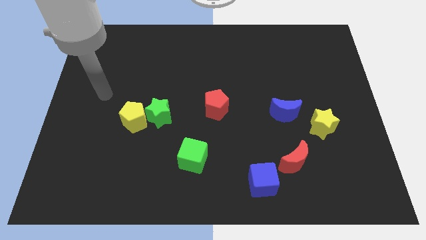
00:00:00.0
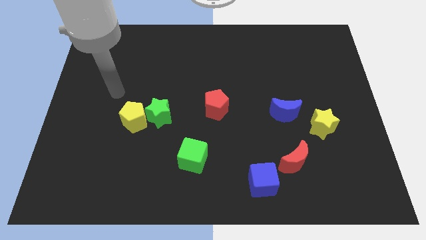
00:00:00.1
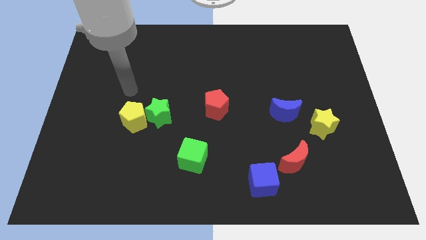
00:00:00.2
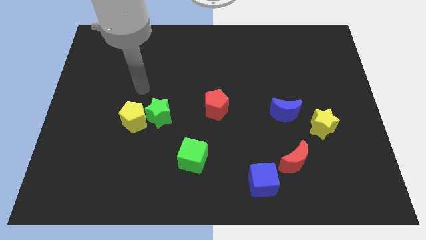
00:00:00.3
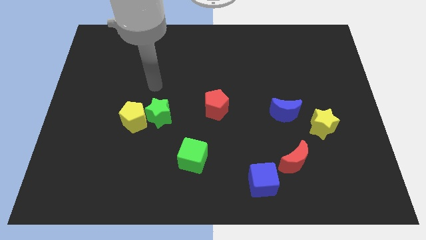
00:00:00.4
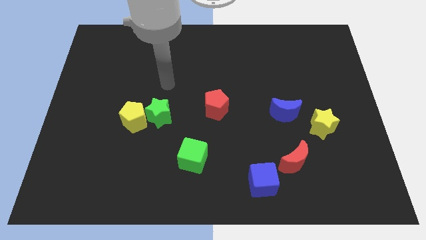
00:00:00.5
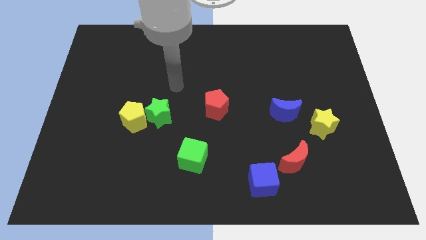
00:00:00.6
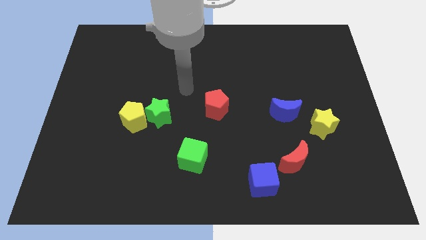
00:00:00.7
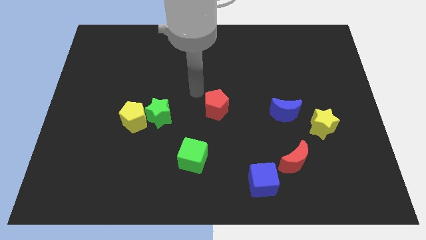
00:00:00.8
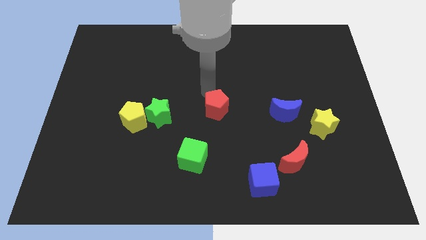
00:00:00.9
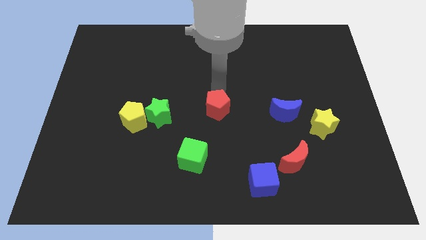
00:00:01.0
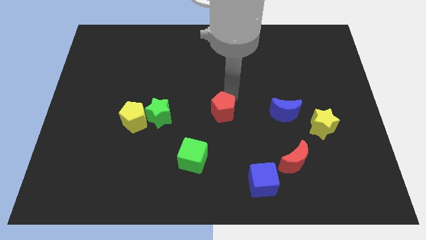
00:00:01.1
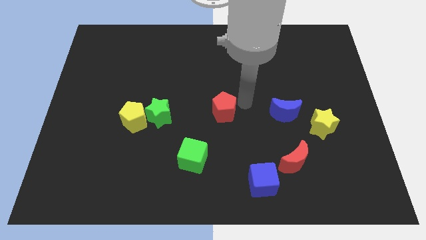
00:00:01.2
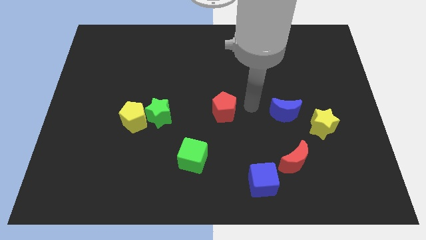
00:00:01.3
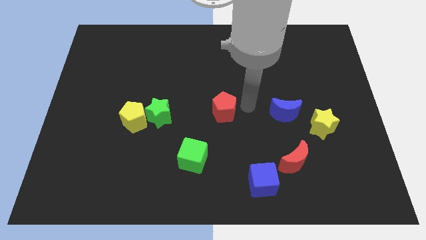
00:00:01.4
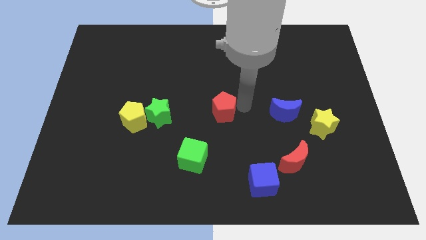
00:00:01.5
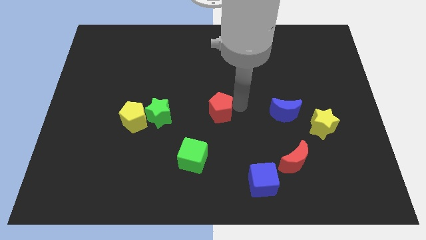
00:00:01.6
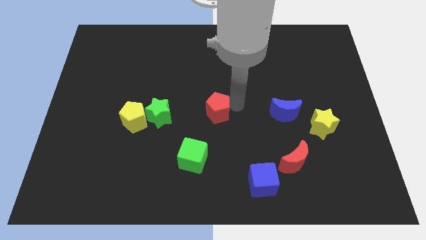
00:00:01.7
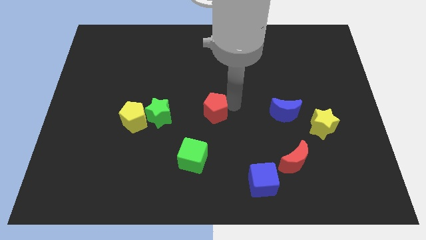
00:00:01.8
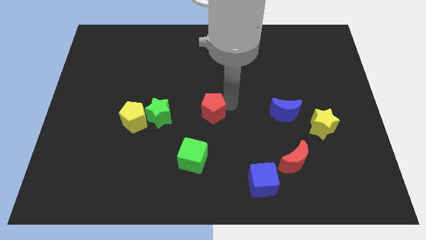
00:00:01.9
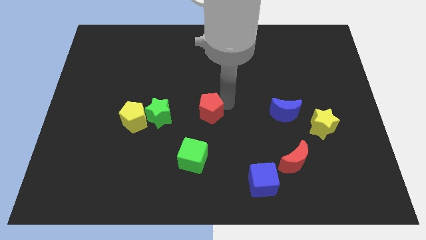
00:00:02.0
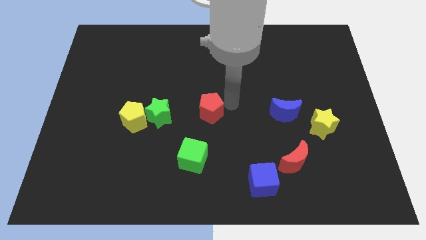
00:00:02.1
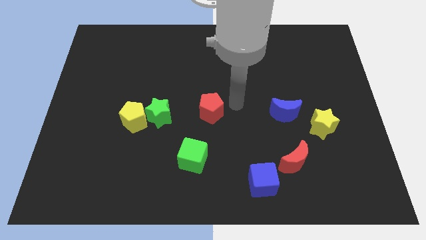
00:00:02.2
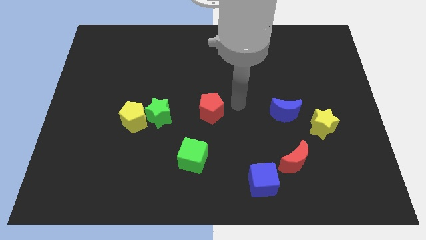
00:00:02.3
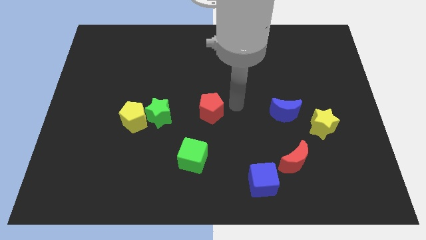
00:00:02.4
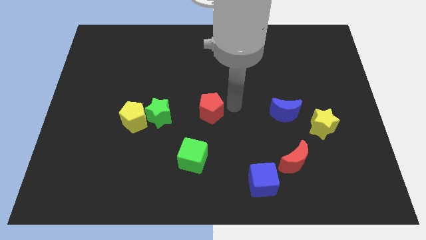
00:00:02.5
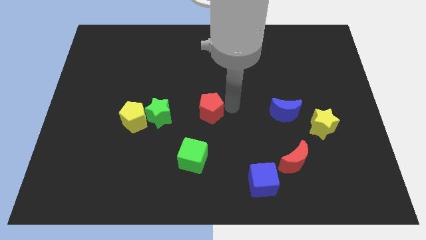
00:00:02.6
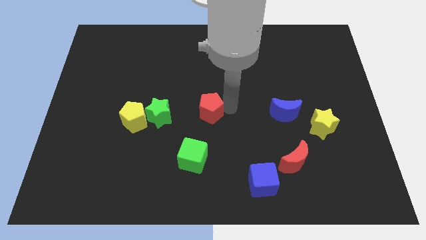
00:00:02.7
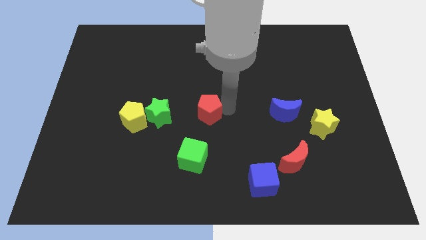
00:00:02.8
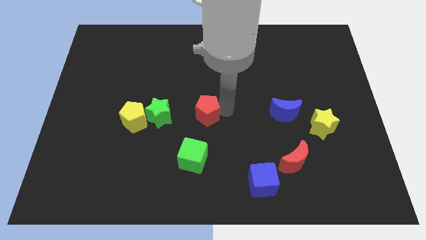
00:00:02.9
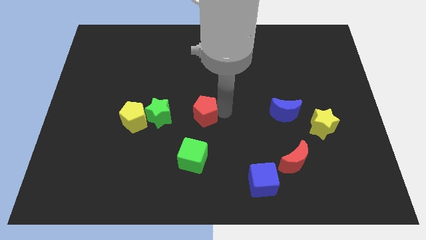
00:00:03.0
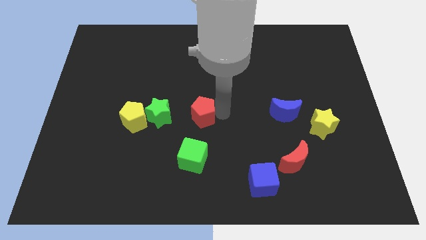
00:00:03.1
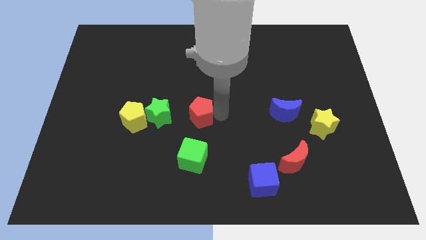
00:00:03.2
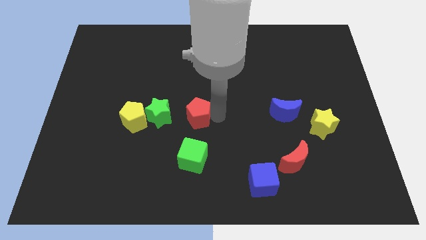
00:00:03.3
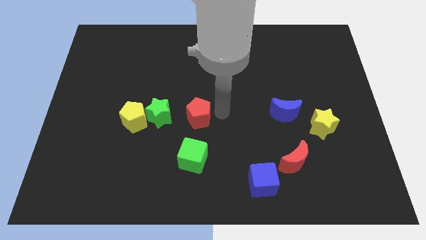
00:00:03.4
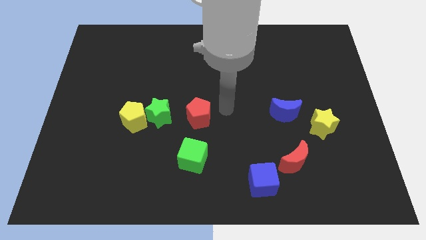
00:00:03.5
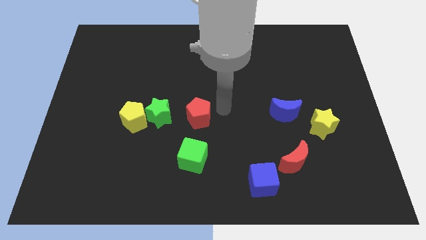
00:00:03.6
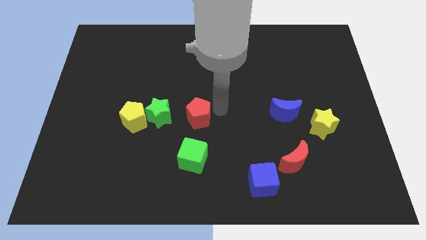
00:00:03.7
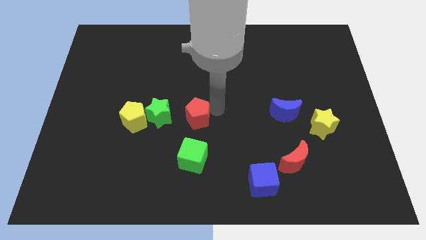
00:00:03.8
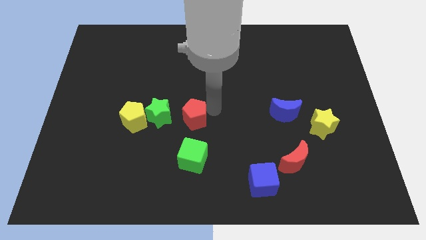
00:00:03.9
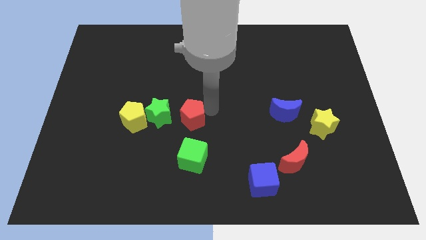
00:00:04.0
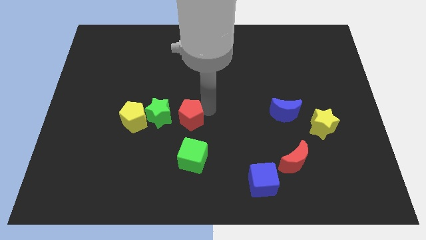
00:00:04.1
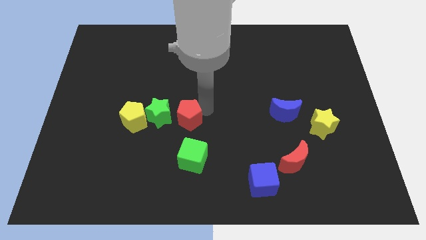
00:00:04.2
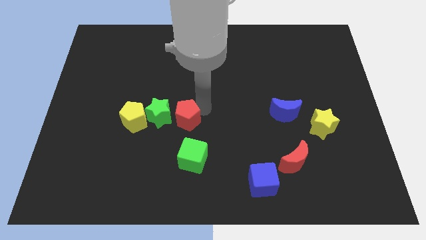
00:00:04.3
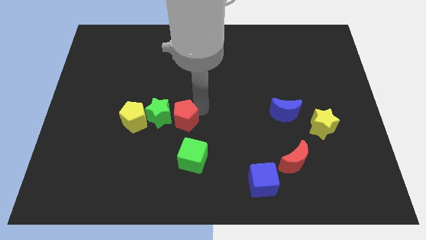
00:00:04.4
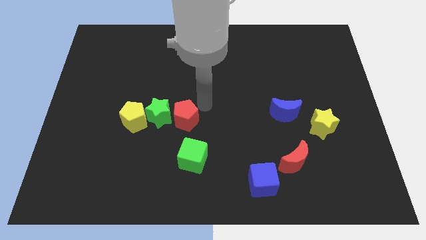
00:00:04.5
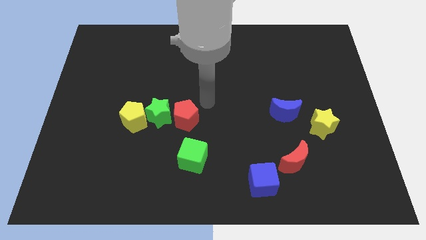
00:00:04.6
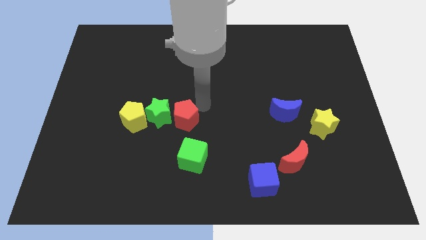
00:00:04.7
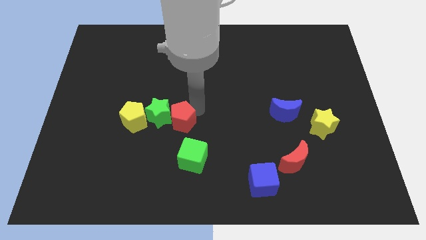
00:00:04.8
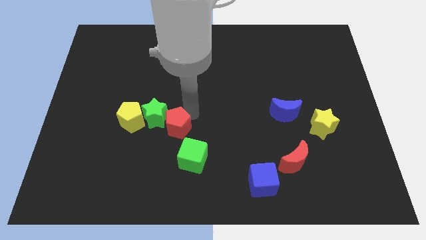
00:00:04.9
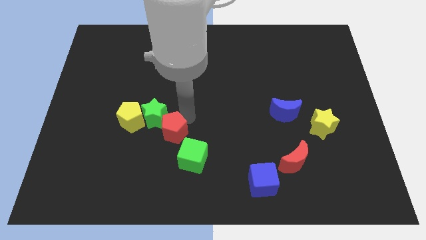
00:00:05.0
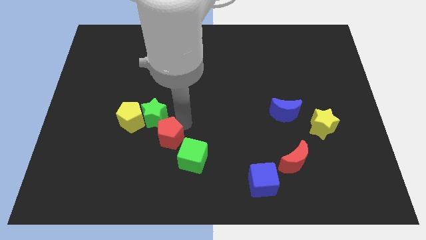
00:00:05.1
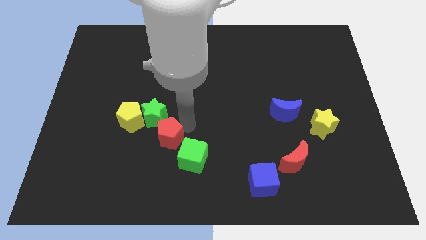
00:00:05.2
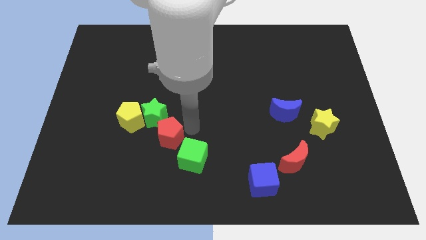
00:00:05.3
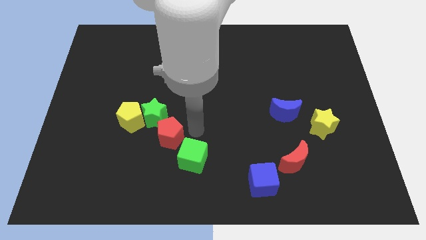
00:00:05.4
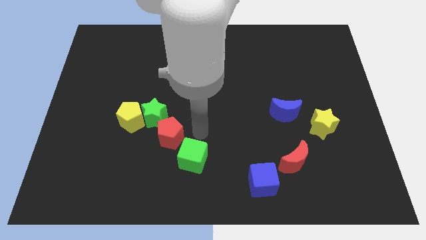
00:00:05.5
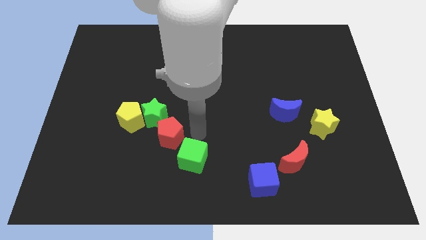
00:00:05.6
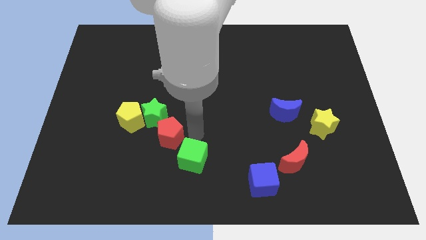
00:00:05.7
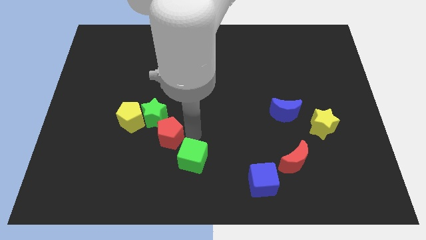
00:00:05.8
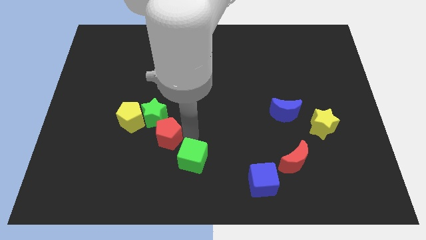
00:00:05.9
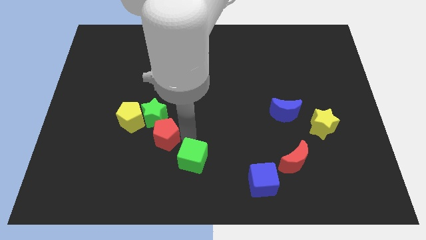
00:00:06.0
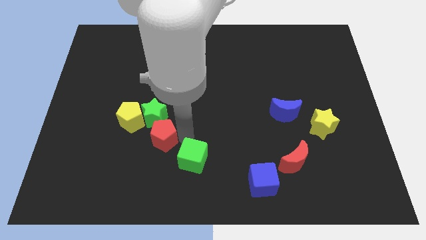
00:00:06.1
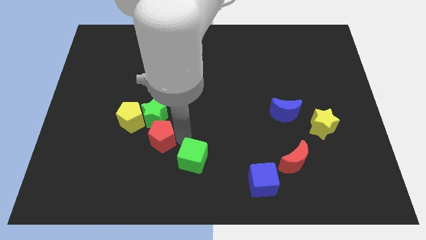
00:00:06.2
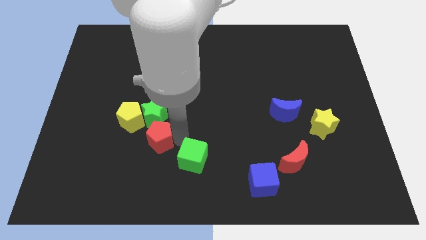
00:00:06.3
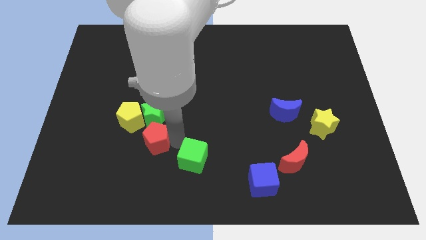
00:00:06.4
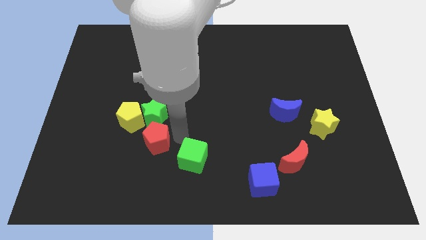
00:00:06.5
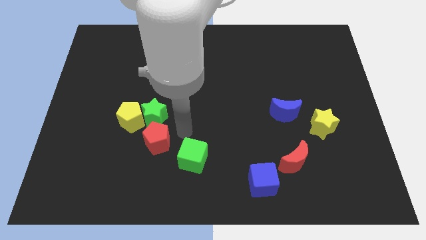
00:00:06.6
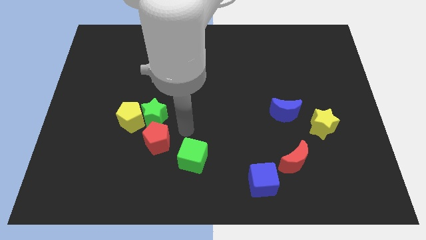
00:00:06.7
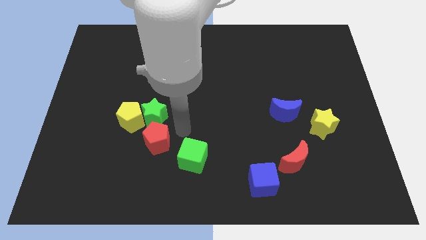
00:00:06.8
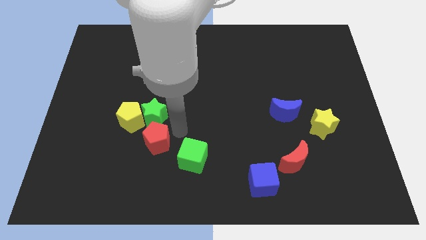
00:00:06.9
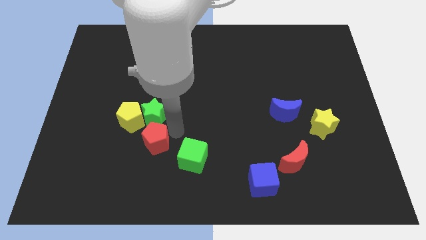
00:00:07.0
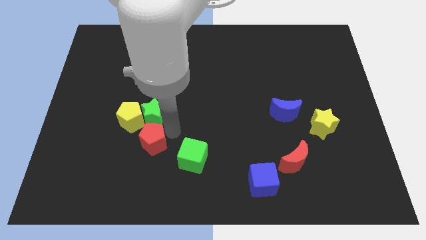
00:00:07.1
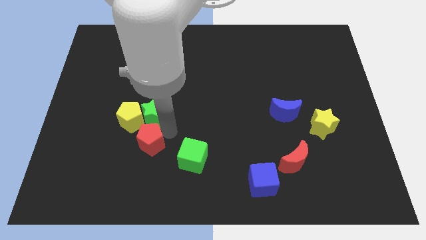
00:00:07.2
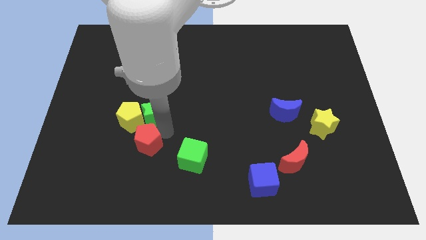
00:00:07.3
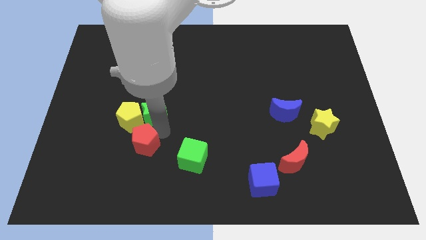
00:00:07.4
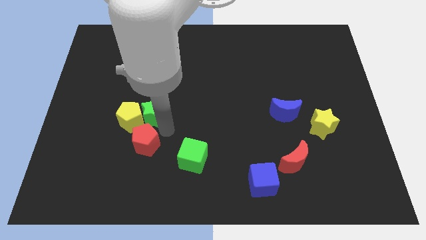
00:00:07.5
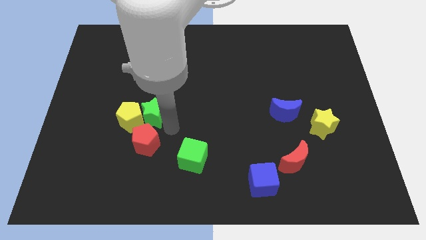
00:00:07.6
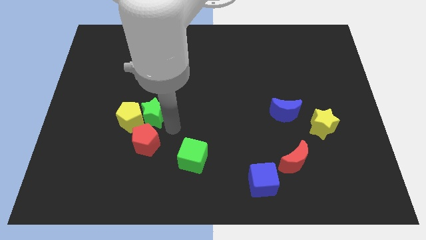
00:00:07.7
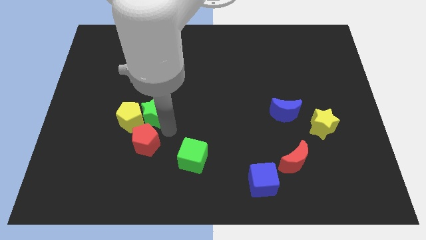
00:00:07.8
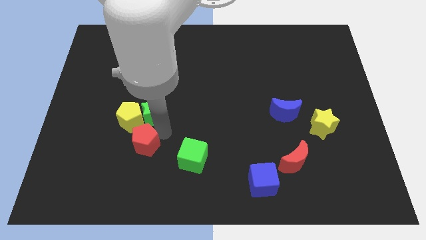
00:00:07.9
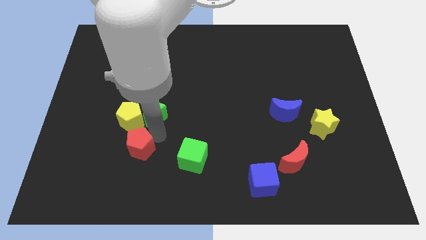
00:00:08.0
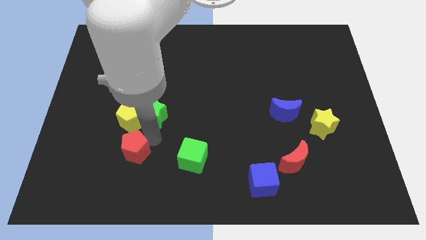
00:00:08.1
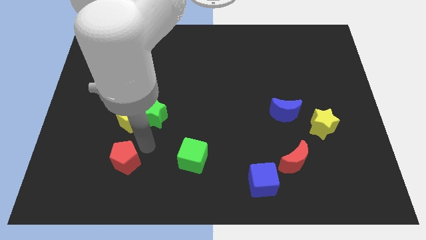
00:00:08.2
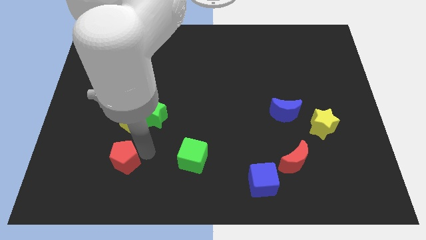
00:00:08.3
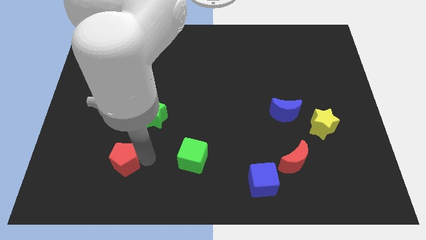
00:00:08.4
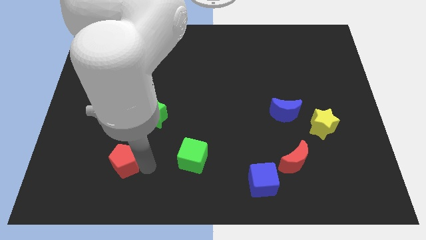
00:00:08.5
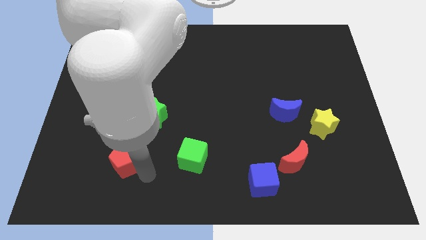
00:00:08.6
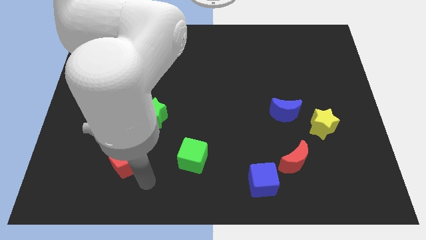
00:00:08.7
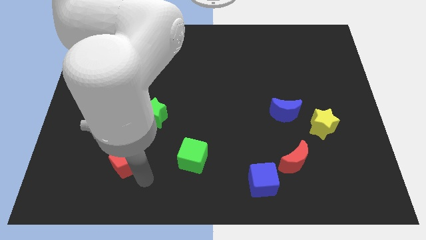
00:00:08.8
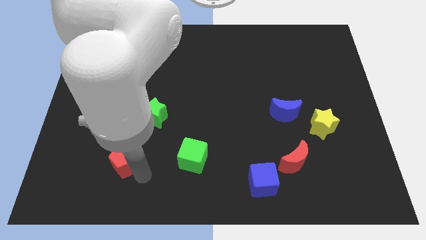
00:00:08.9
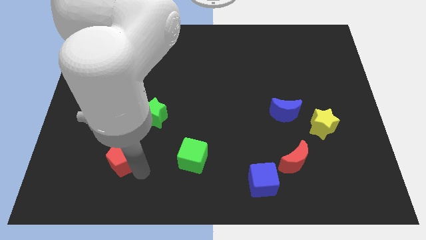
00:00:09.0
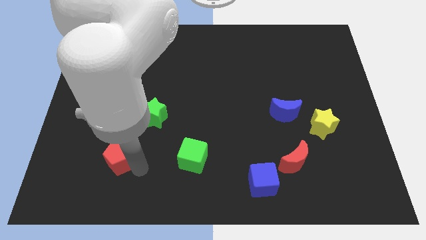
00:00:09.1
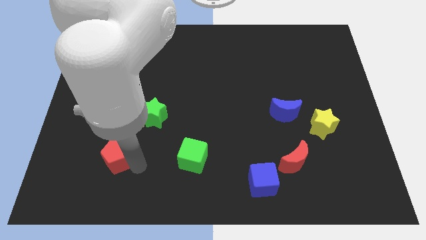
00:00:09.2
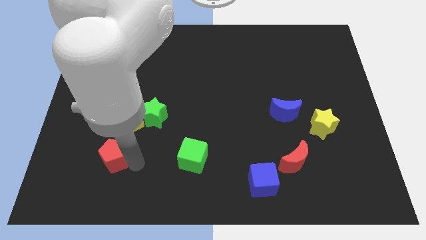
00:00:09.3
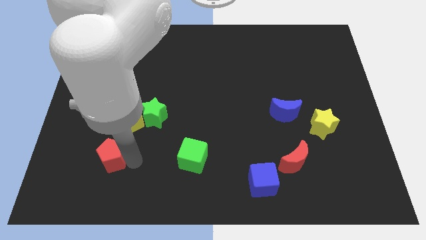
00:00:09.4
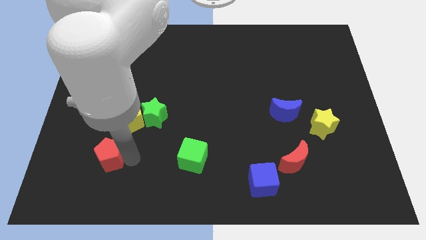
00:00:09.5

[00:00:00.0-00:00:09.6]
push the red pentagon to the bottom left side of the yellow pentagon
